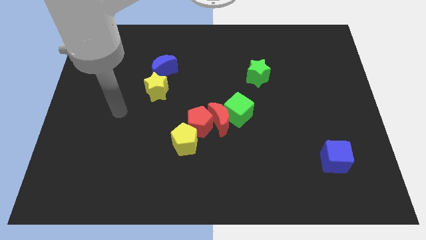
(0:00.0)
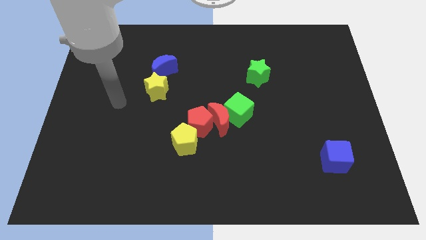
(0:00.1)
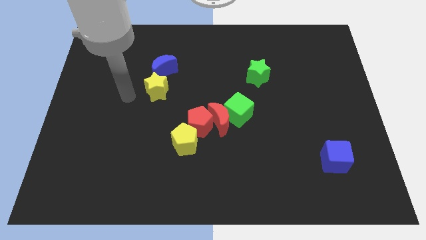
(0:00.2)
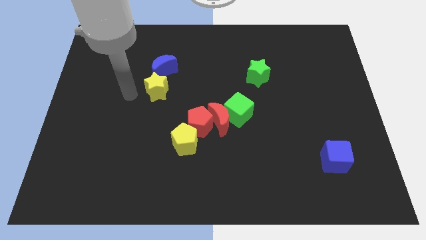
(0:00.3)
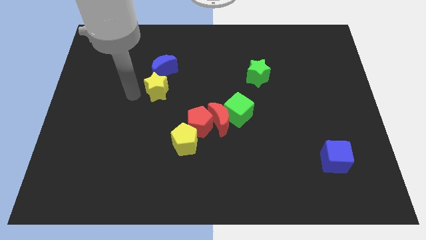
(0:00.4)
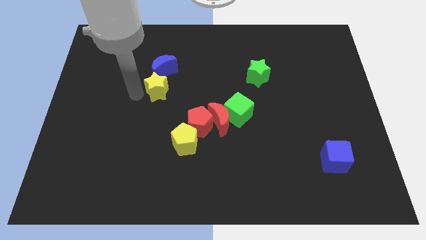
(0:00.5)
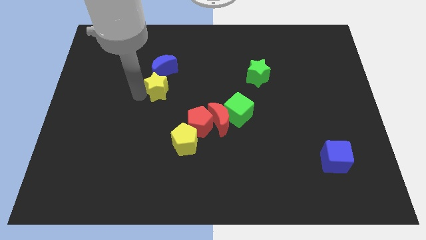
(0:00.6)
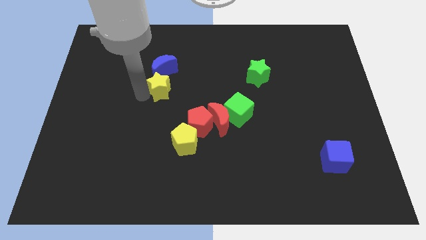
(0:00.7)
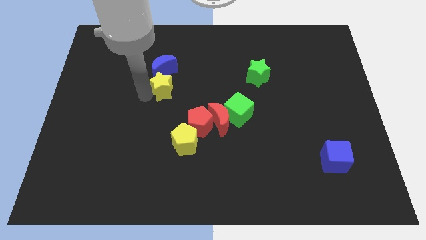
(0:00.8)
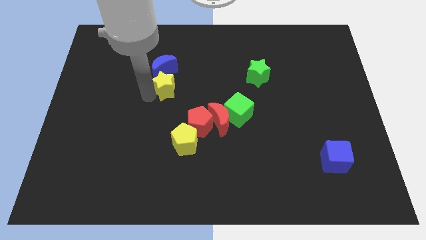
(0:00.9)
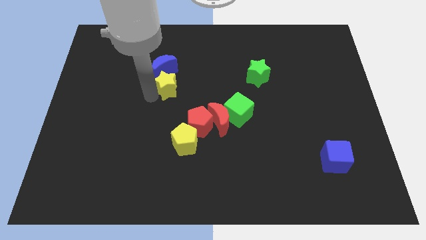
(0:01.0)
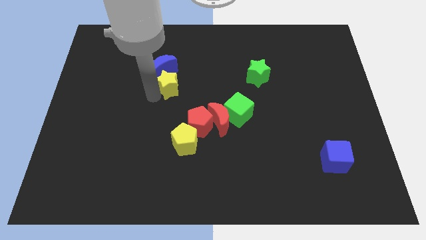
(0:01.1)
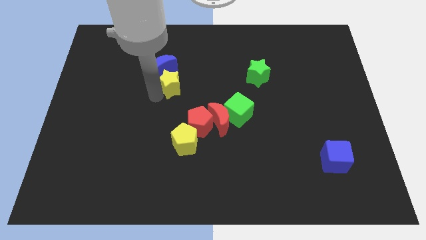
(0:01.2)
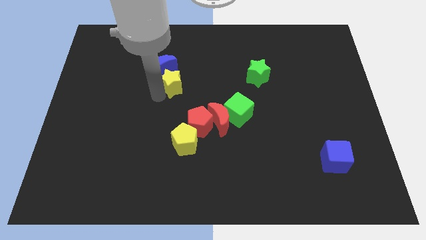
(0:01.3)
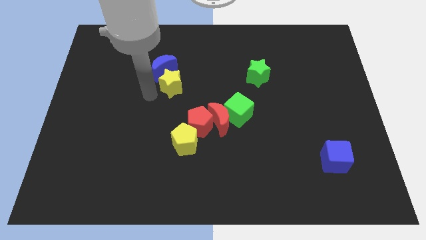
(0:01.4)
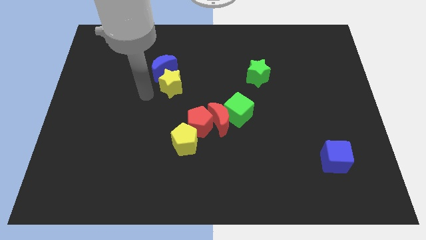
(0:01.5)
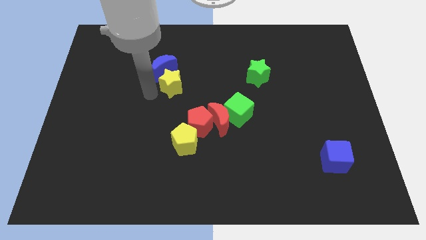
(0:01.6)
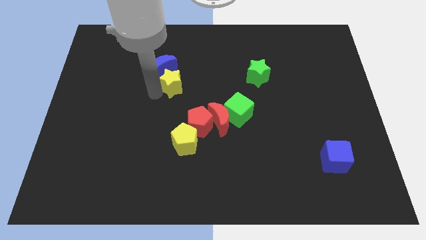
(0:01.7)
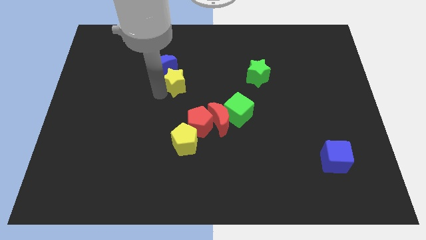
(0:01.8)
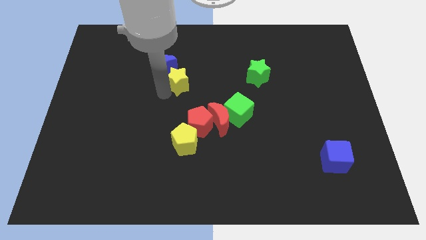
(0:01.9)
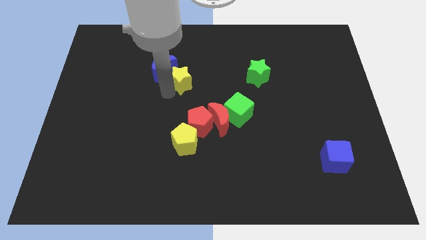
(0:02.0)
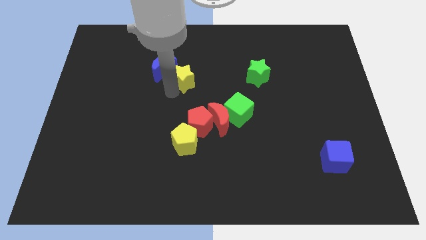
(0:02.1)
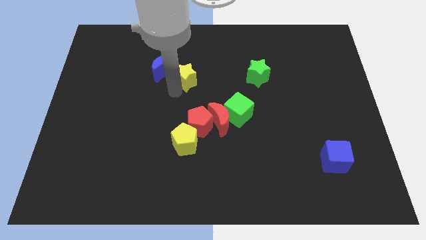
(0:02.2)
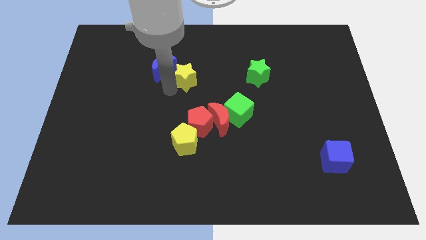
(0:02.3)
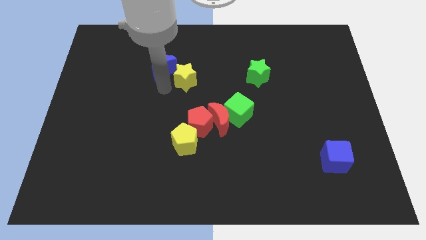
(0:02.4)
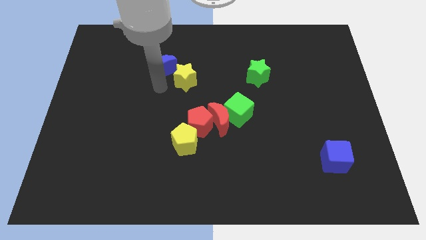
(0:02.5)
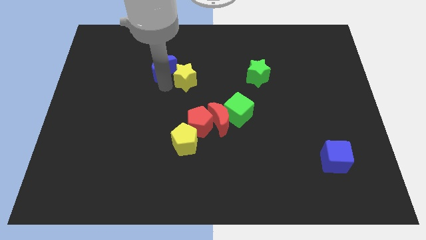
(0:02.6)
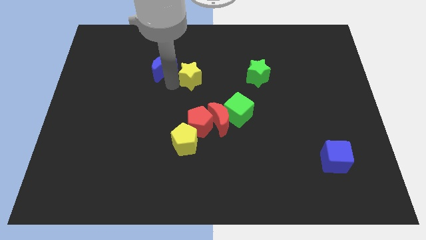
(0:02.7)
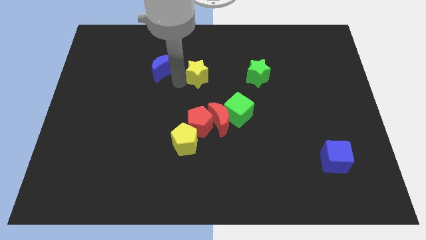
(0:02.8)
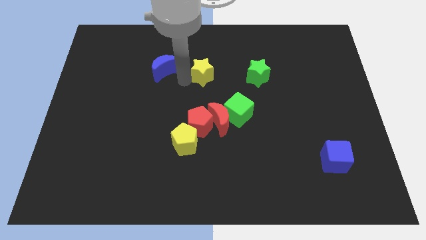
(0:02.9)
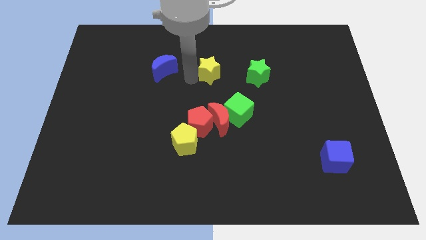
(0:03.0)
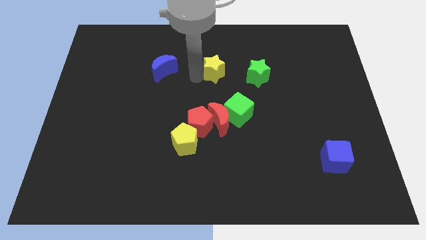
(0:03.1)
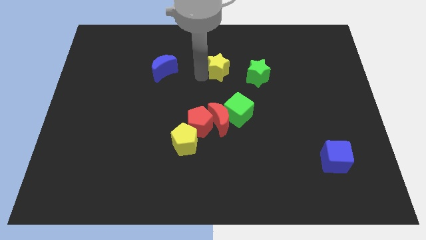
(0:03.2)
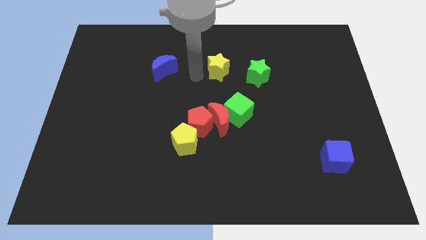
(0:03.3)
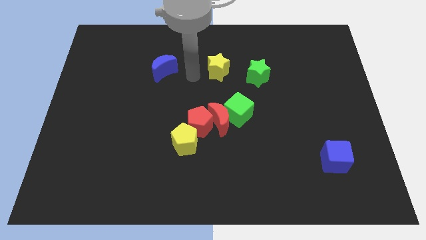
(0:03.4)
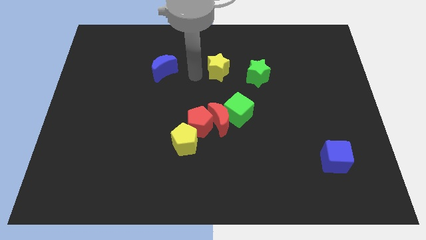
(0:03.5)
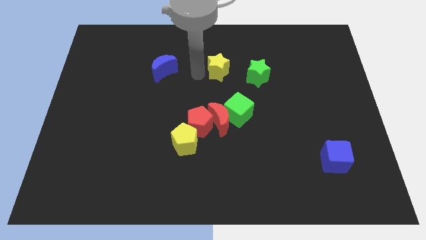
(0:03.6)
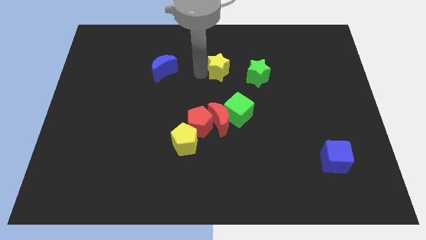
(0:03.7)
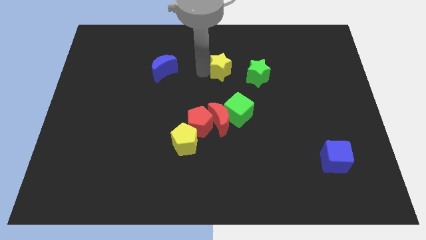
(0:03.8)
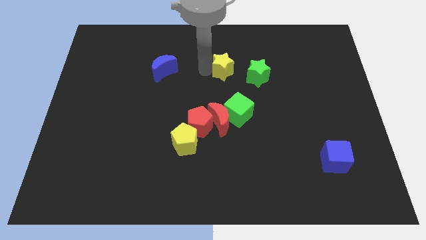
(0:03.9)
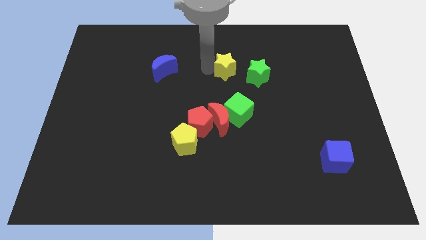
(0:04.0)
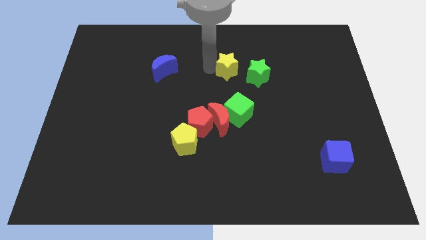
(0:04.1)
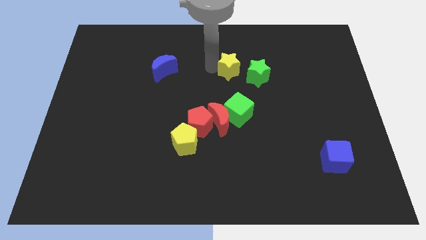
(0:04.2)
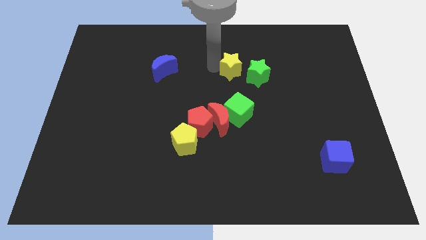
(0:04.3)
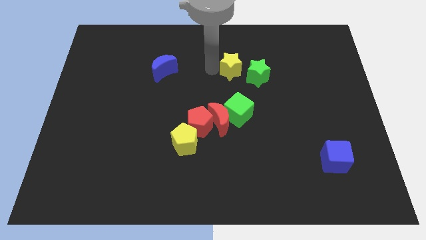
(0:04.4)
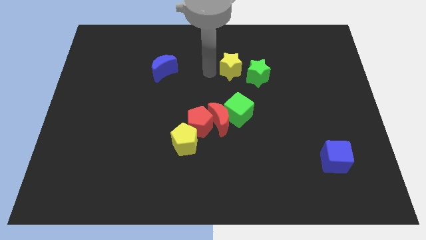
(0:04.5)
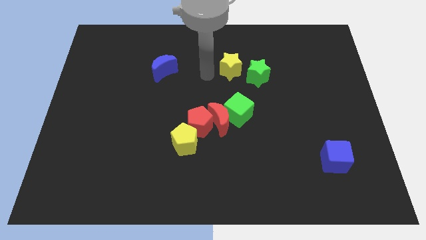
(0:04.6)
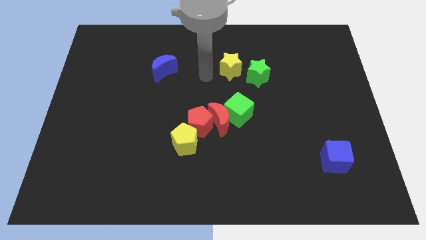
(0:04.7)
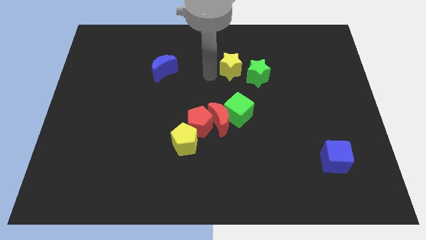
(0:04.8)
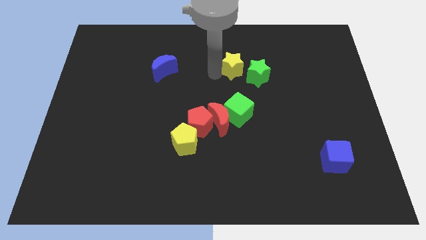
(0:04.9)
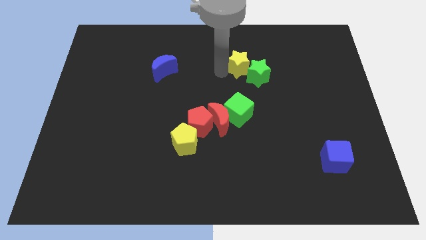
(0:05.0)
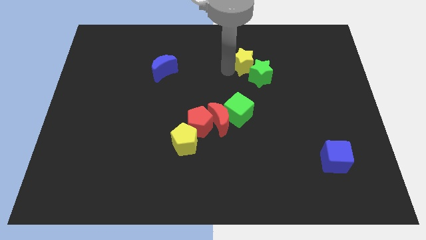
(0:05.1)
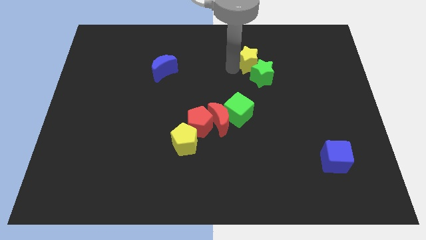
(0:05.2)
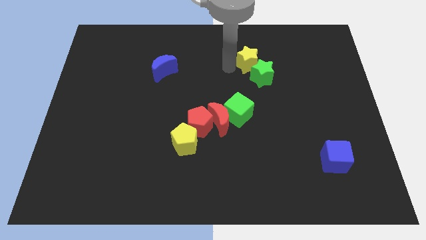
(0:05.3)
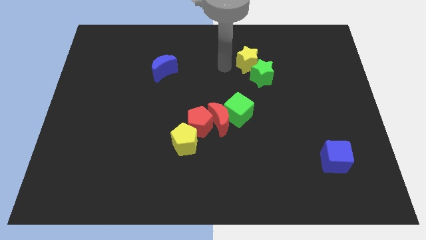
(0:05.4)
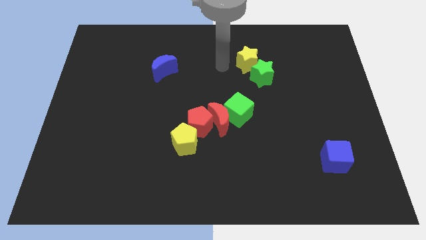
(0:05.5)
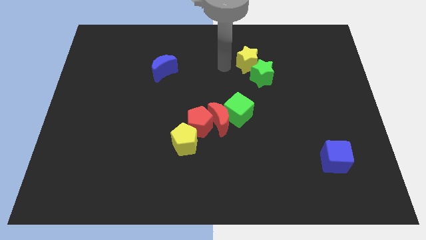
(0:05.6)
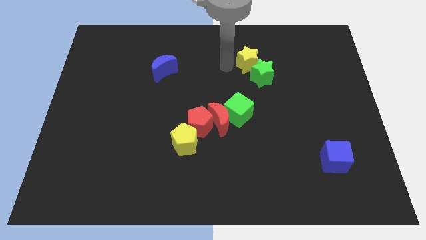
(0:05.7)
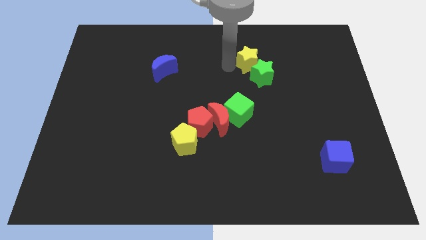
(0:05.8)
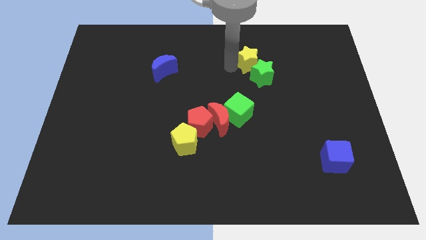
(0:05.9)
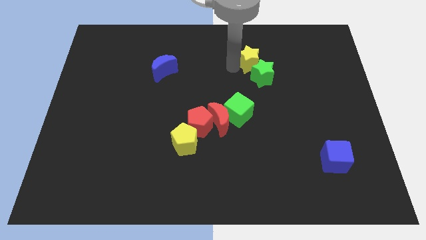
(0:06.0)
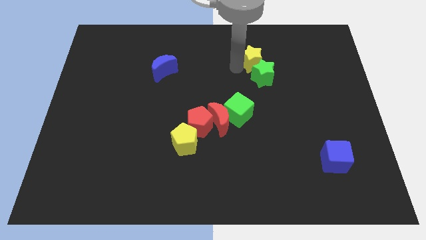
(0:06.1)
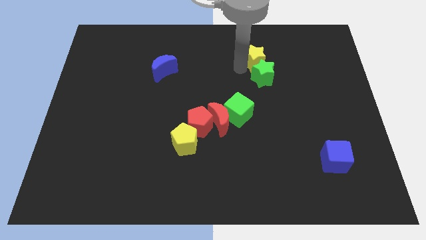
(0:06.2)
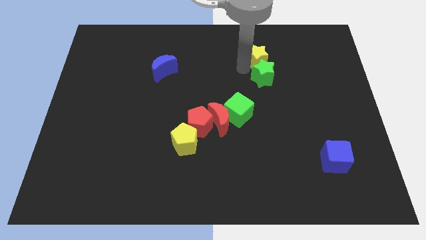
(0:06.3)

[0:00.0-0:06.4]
slide the yellow star to the top right of the green star

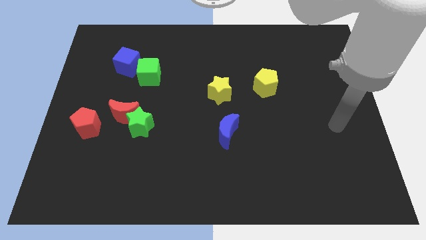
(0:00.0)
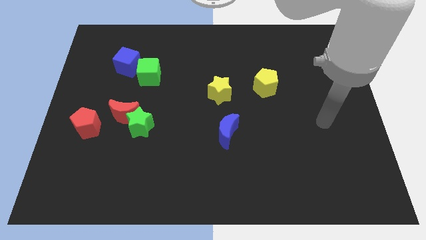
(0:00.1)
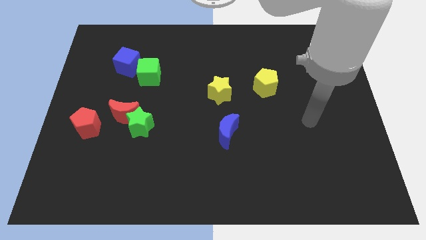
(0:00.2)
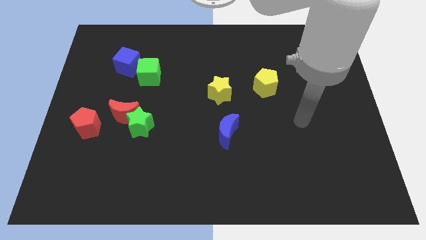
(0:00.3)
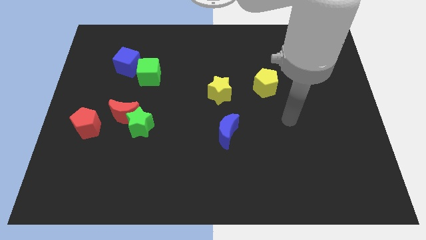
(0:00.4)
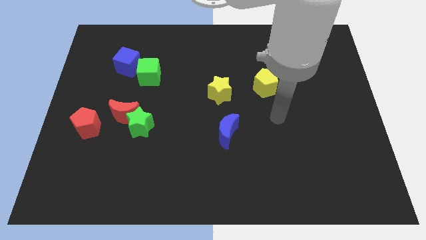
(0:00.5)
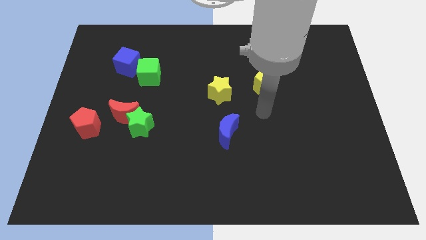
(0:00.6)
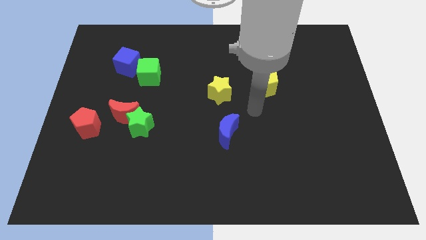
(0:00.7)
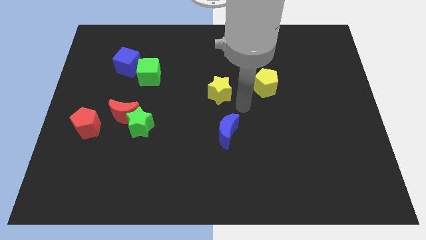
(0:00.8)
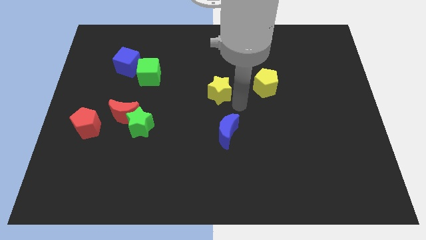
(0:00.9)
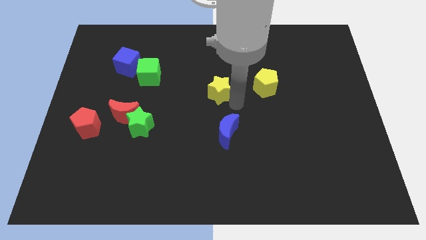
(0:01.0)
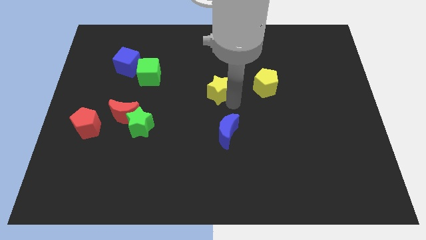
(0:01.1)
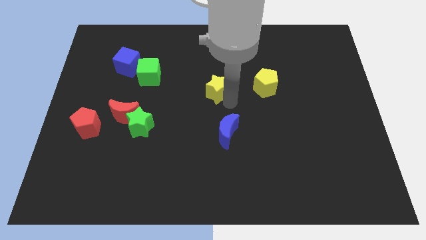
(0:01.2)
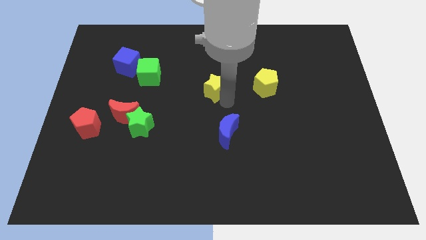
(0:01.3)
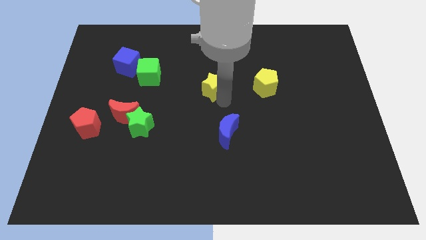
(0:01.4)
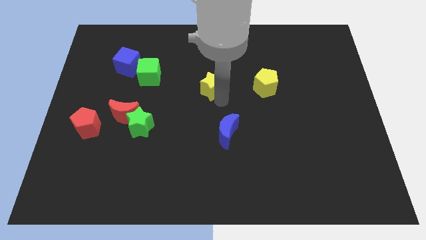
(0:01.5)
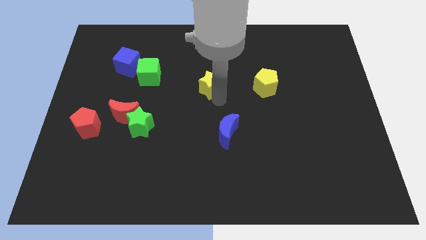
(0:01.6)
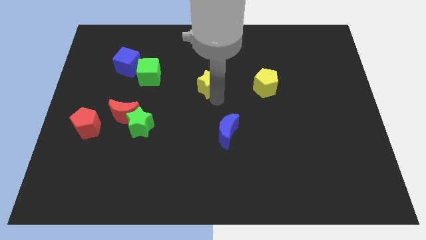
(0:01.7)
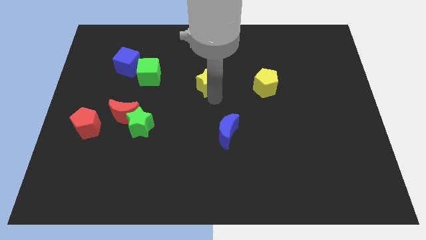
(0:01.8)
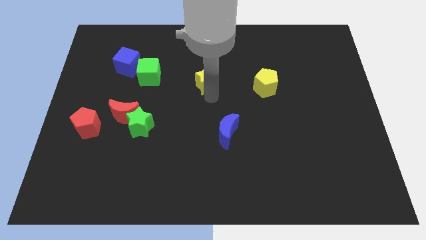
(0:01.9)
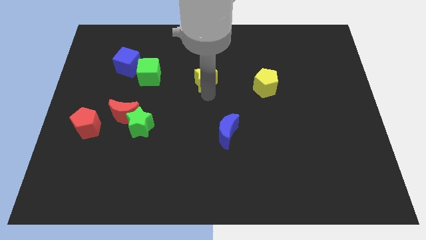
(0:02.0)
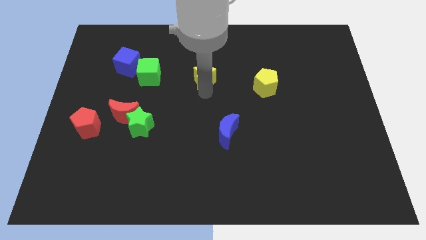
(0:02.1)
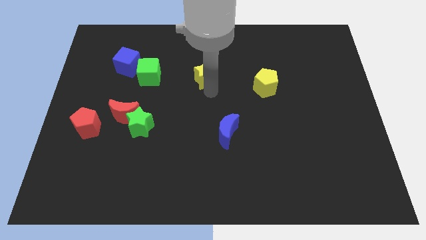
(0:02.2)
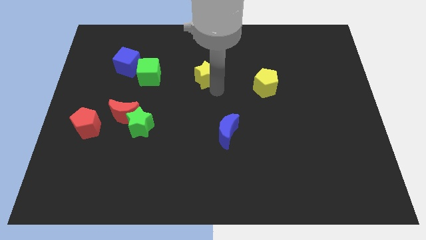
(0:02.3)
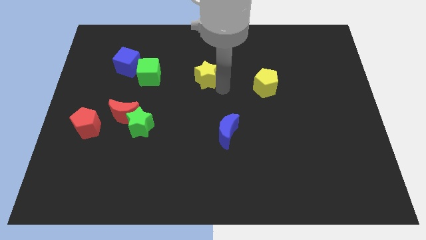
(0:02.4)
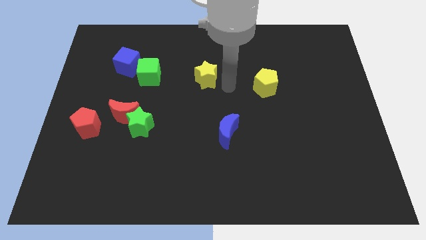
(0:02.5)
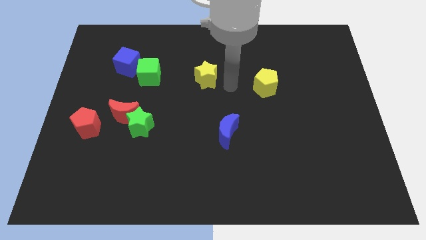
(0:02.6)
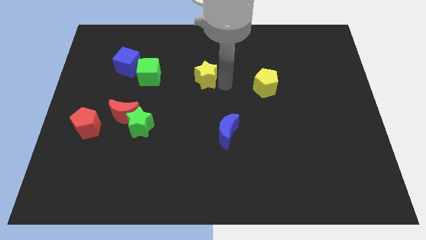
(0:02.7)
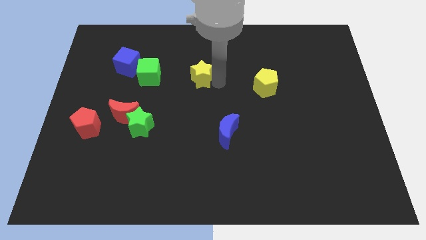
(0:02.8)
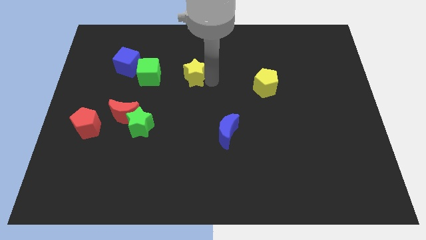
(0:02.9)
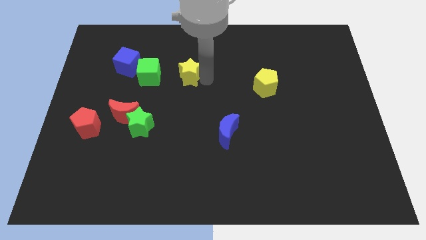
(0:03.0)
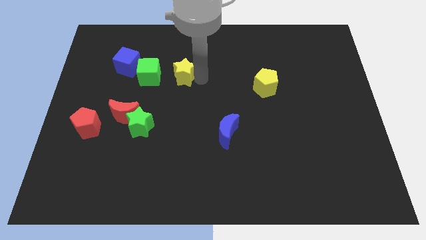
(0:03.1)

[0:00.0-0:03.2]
push the yellow star to the right side of the blue cube
